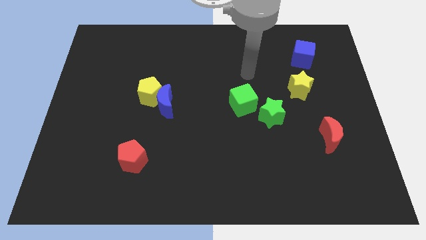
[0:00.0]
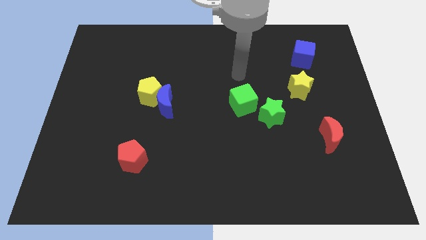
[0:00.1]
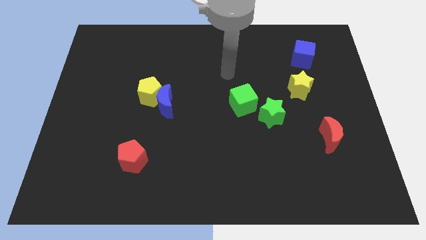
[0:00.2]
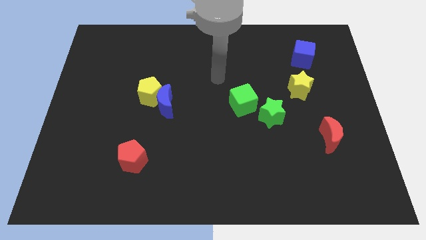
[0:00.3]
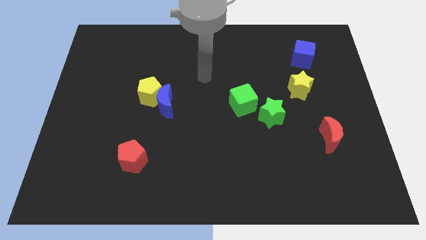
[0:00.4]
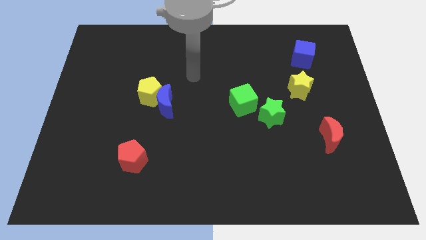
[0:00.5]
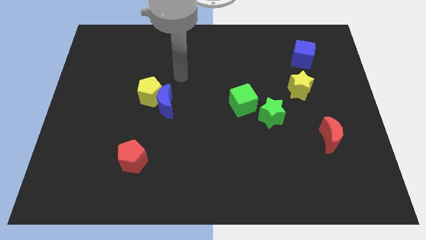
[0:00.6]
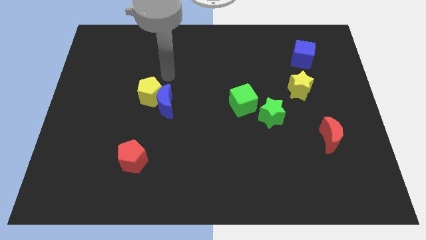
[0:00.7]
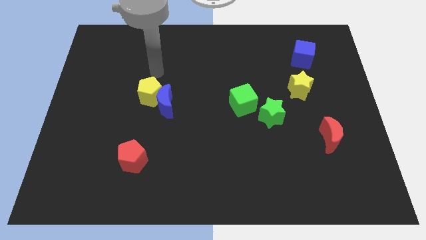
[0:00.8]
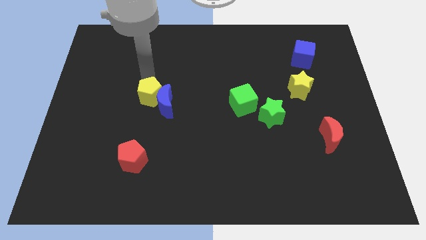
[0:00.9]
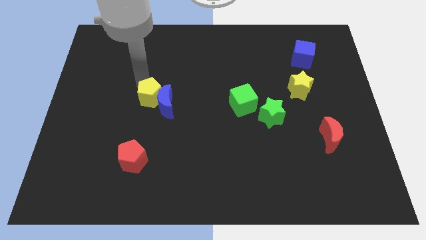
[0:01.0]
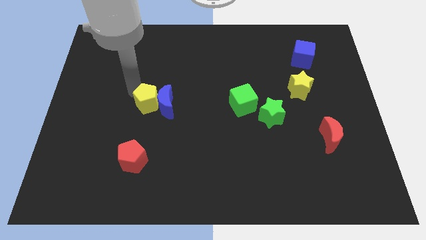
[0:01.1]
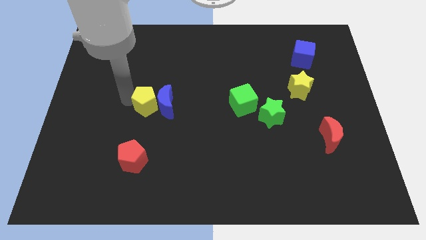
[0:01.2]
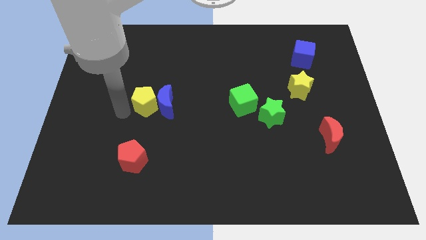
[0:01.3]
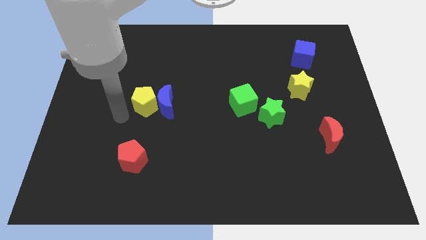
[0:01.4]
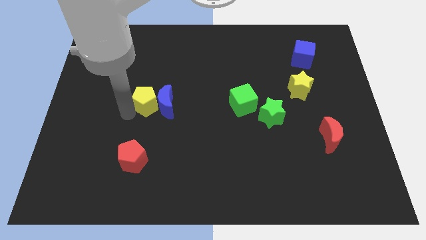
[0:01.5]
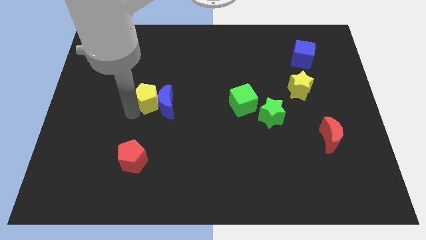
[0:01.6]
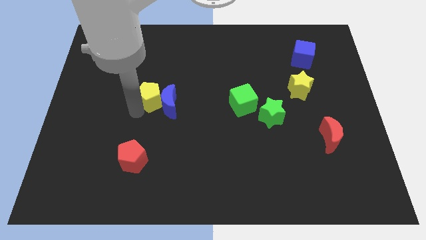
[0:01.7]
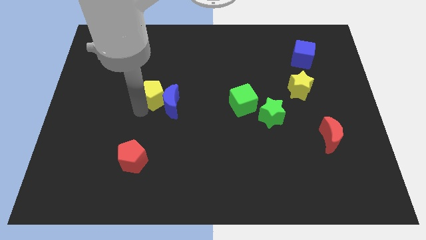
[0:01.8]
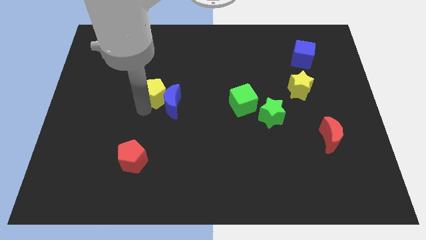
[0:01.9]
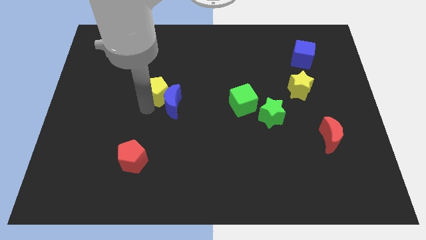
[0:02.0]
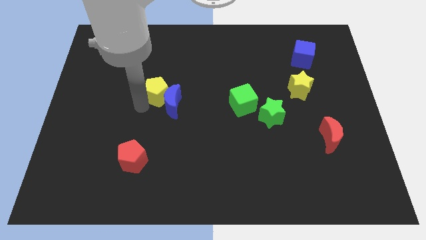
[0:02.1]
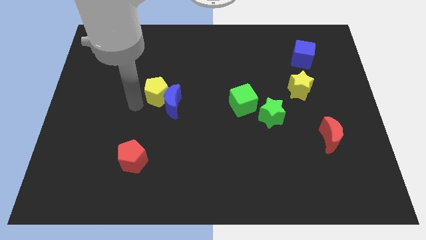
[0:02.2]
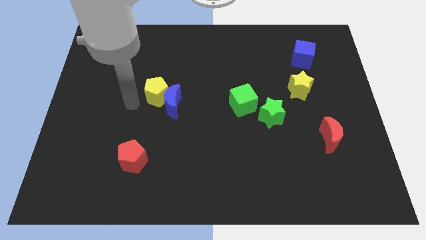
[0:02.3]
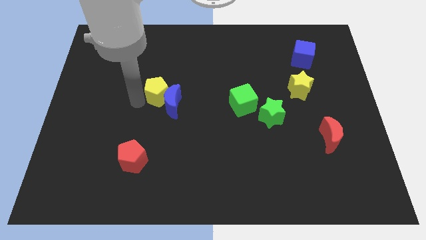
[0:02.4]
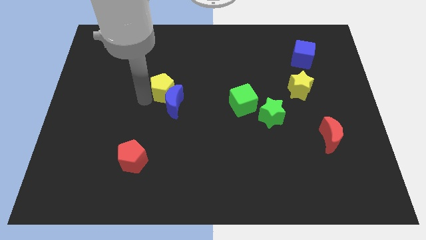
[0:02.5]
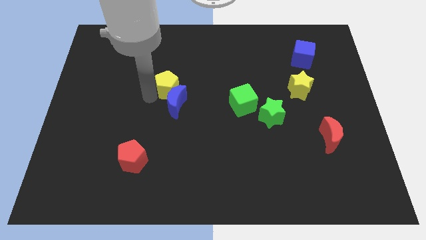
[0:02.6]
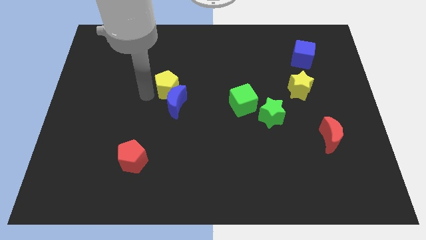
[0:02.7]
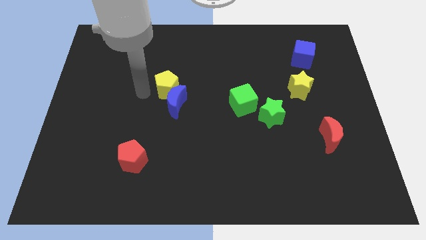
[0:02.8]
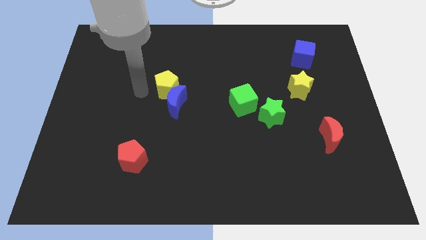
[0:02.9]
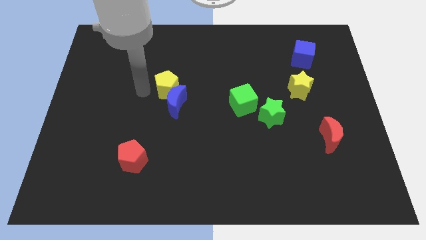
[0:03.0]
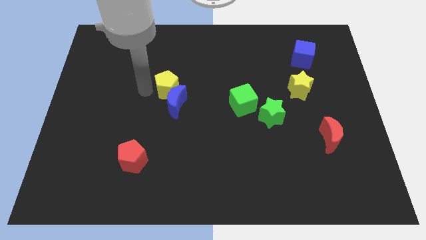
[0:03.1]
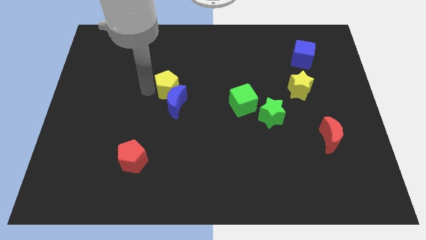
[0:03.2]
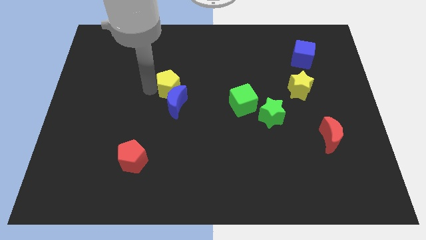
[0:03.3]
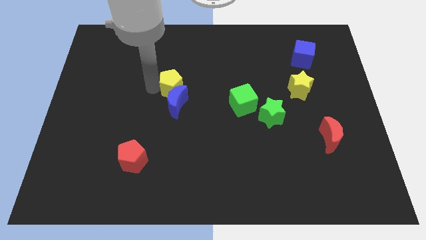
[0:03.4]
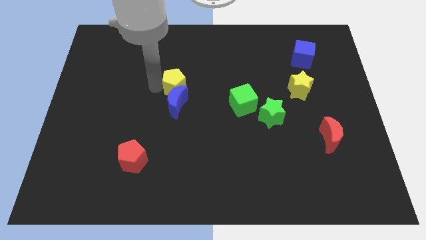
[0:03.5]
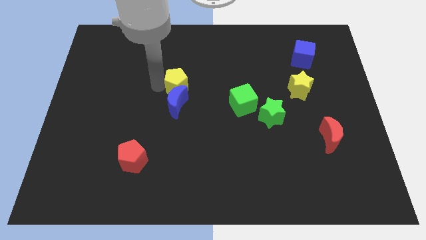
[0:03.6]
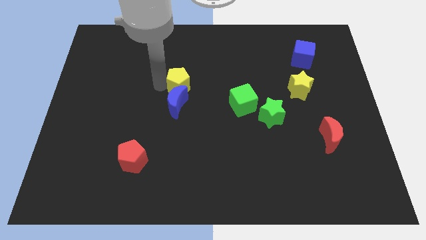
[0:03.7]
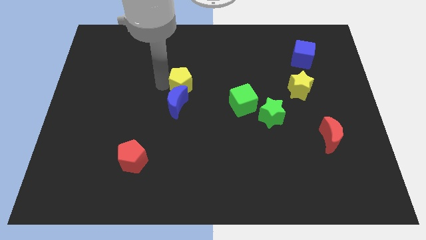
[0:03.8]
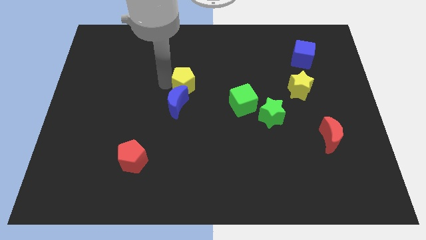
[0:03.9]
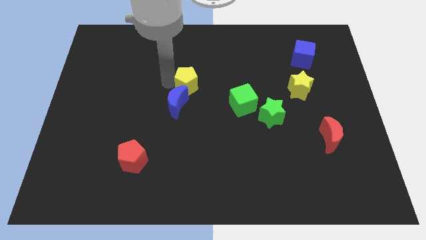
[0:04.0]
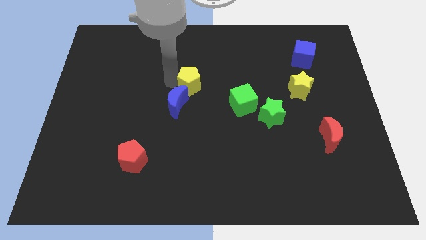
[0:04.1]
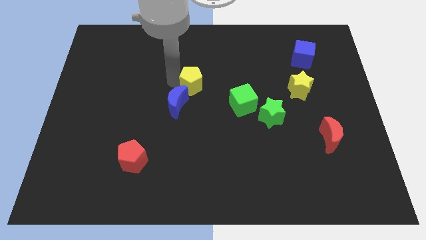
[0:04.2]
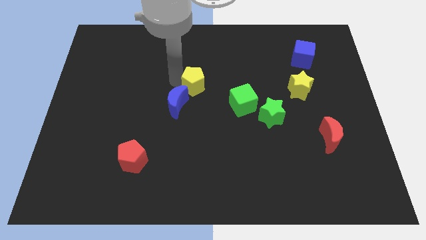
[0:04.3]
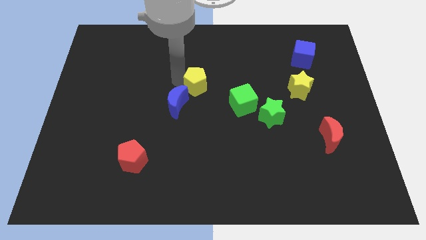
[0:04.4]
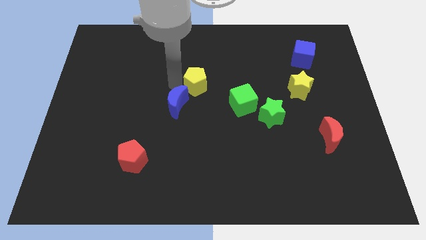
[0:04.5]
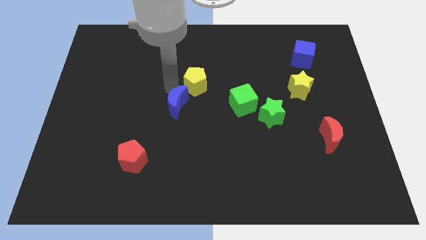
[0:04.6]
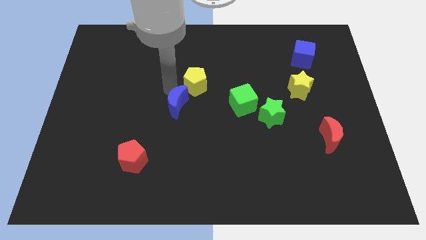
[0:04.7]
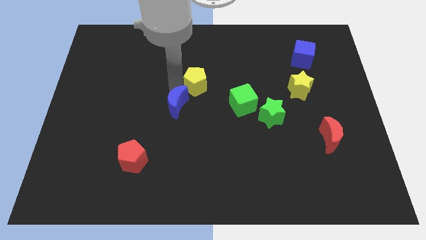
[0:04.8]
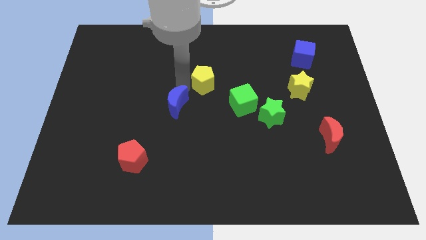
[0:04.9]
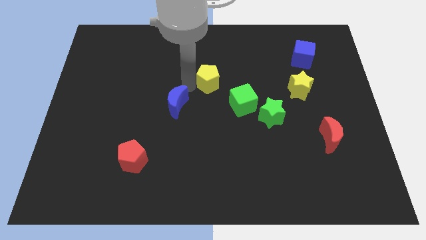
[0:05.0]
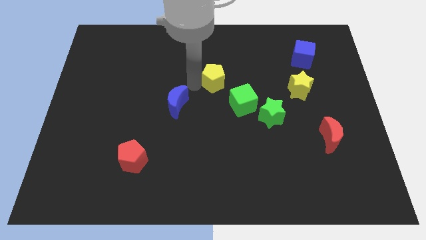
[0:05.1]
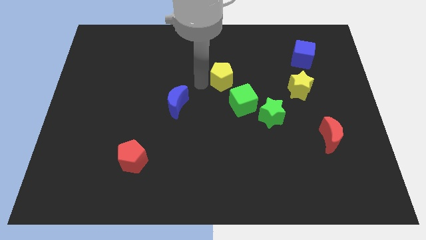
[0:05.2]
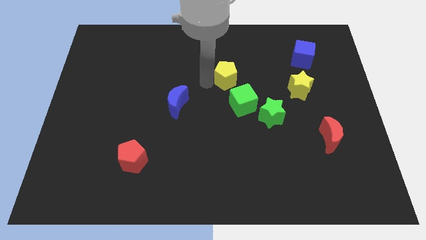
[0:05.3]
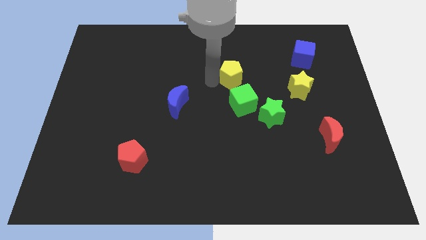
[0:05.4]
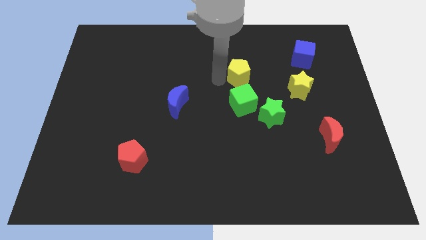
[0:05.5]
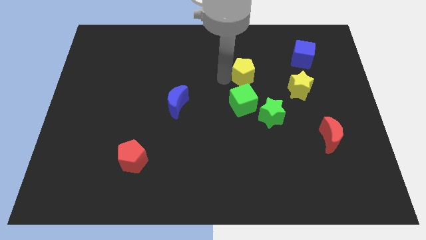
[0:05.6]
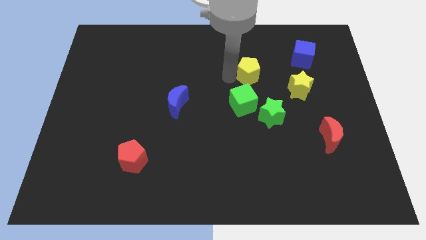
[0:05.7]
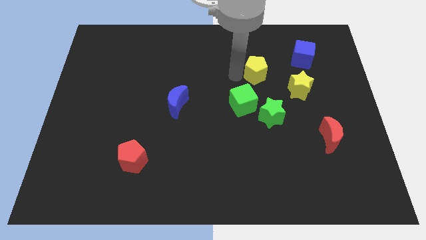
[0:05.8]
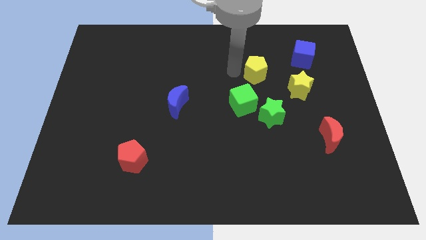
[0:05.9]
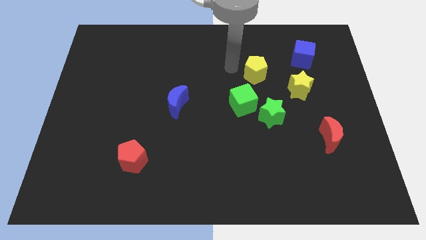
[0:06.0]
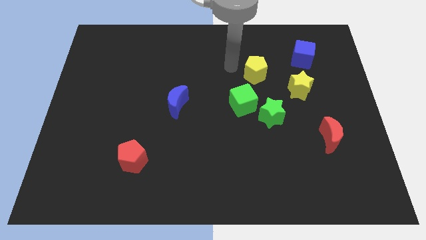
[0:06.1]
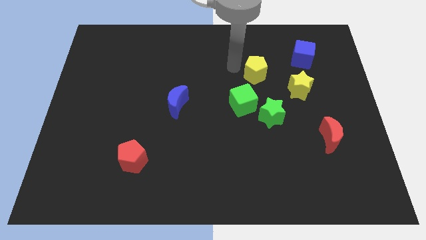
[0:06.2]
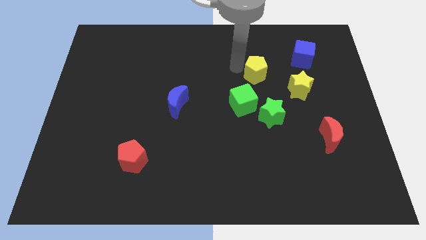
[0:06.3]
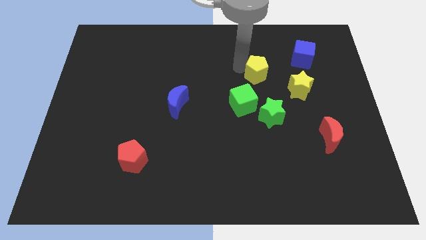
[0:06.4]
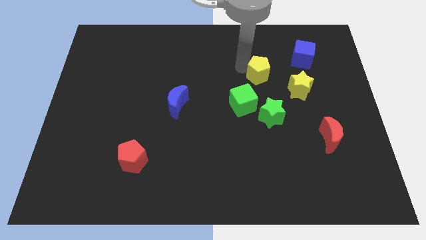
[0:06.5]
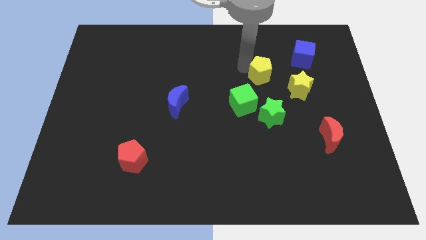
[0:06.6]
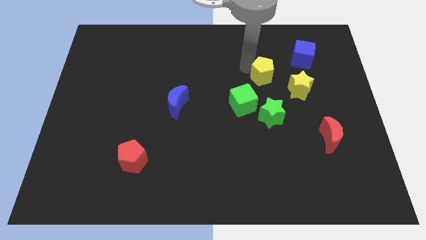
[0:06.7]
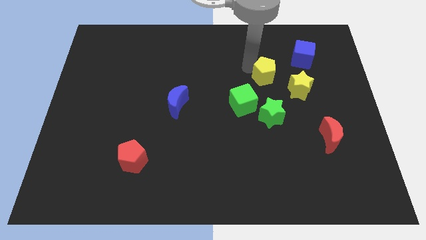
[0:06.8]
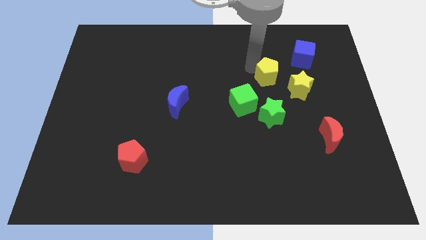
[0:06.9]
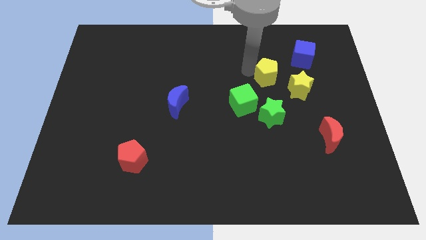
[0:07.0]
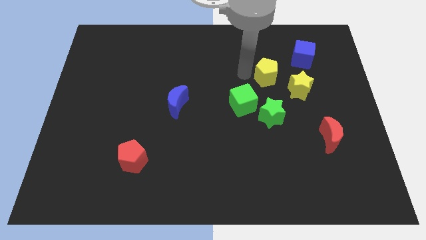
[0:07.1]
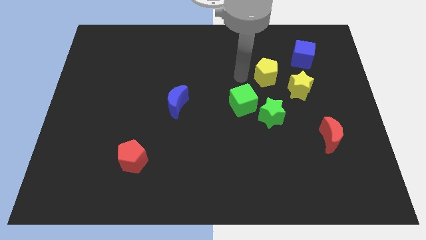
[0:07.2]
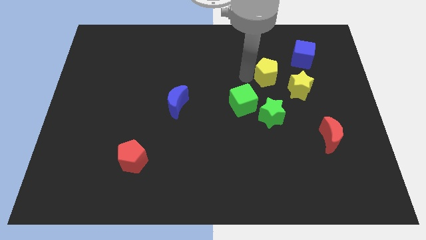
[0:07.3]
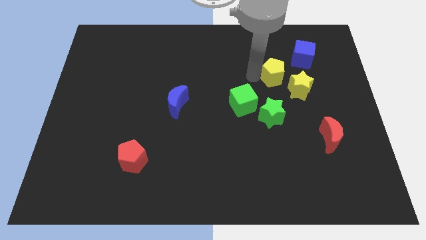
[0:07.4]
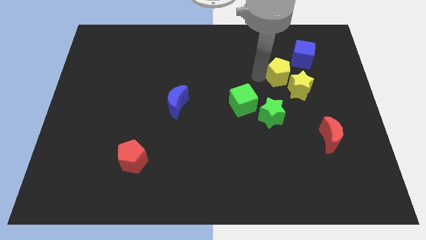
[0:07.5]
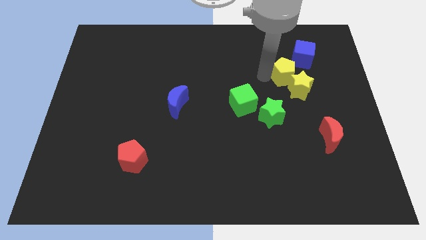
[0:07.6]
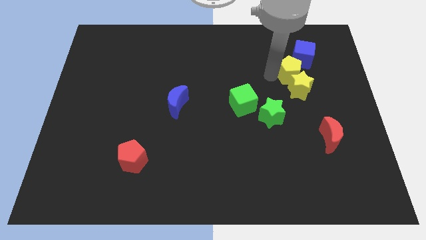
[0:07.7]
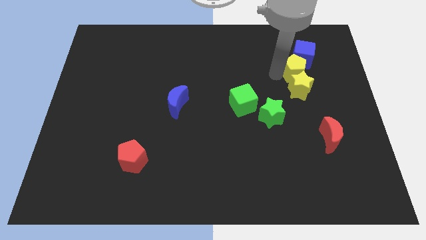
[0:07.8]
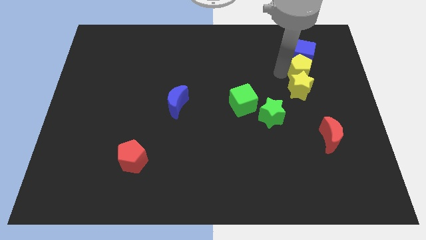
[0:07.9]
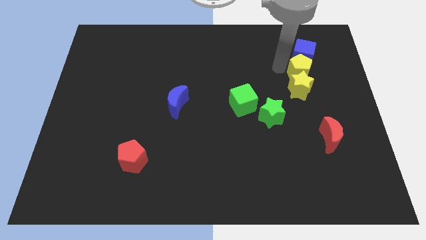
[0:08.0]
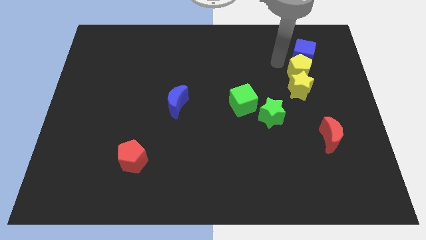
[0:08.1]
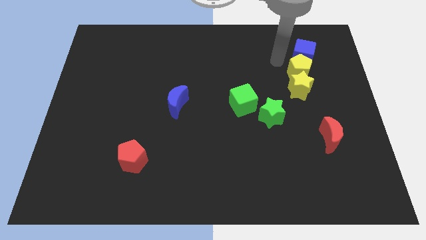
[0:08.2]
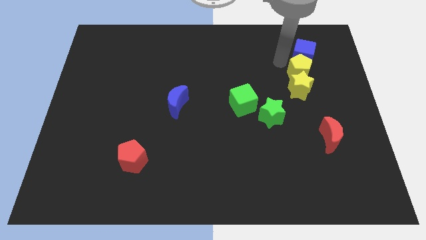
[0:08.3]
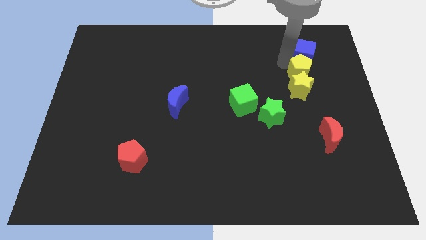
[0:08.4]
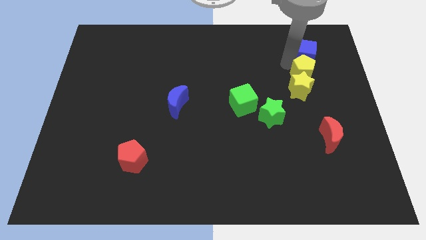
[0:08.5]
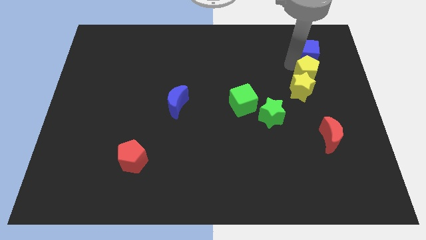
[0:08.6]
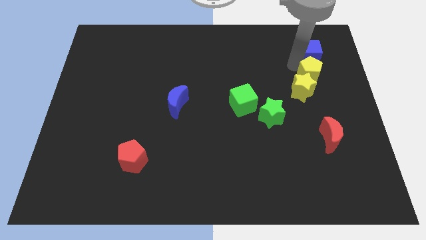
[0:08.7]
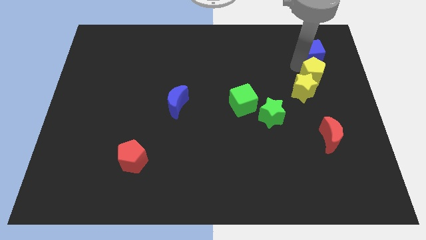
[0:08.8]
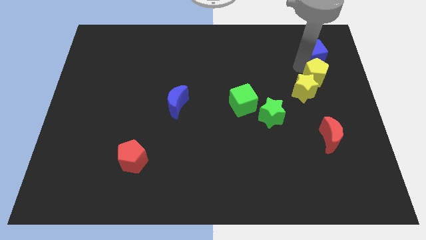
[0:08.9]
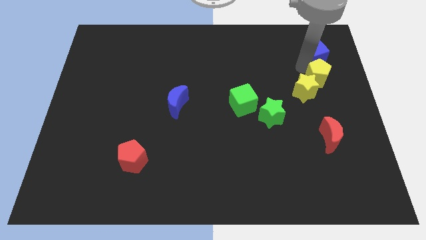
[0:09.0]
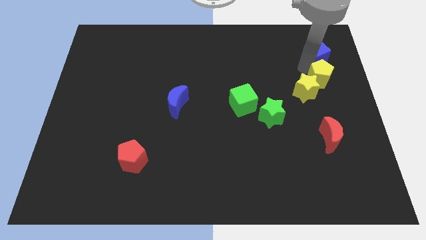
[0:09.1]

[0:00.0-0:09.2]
put the yellow pentagon to the center right
